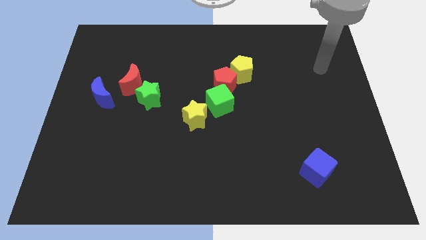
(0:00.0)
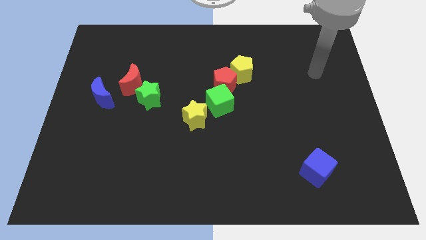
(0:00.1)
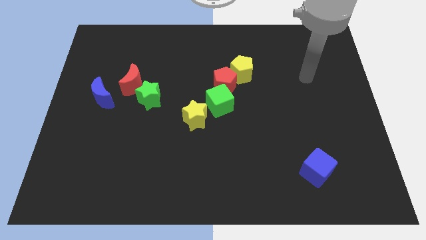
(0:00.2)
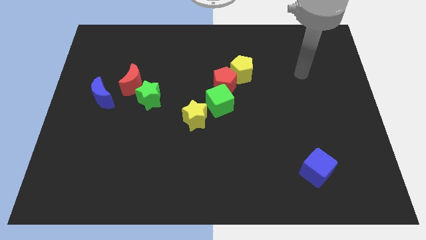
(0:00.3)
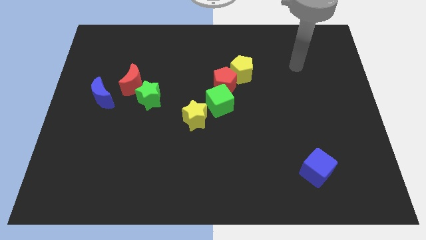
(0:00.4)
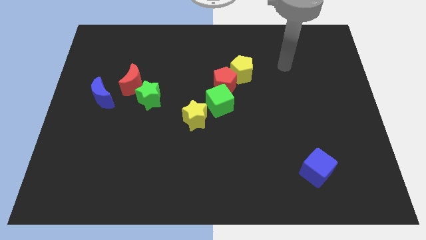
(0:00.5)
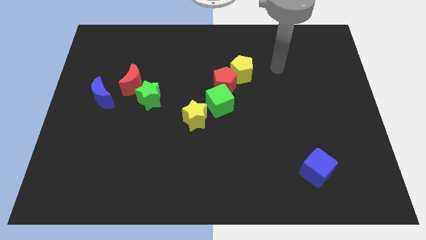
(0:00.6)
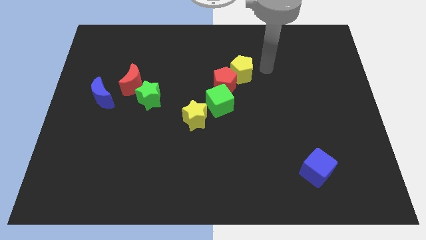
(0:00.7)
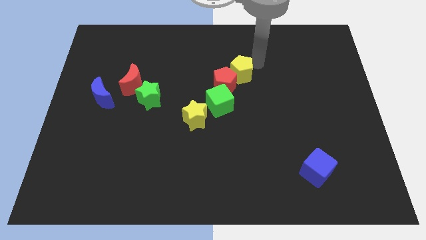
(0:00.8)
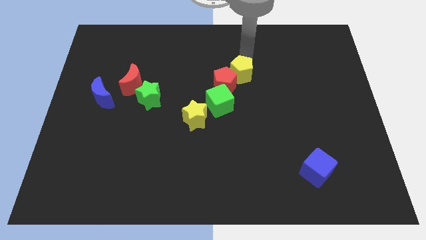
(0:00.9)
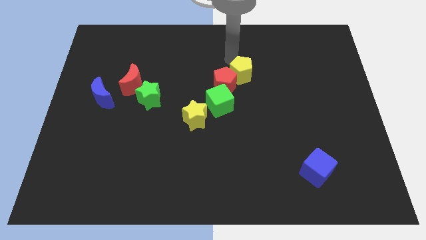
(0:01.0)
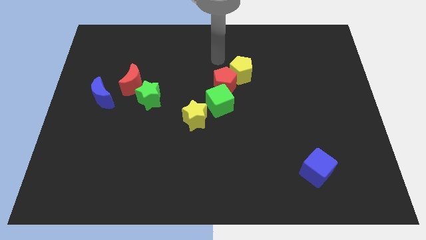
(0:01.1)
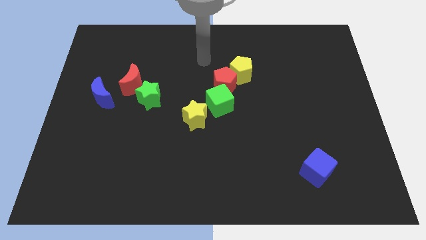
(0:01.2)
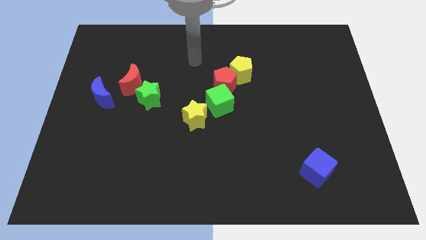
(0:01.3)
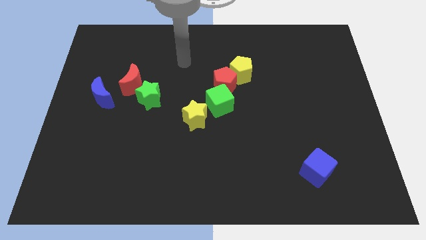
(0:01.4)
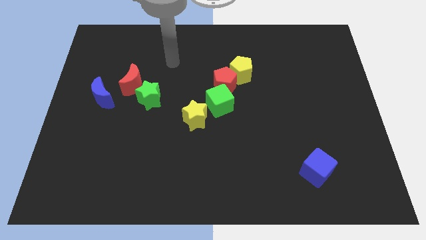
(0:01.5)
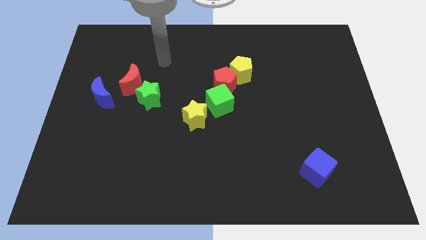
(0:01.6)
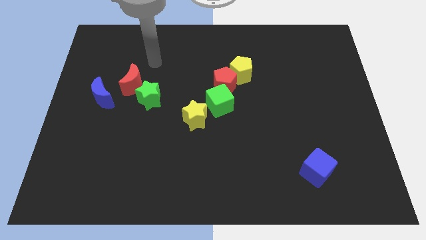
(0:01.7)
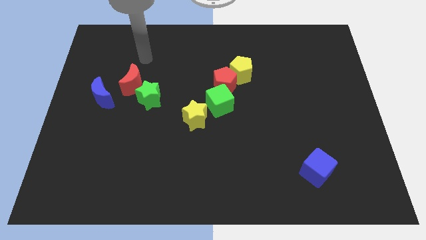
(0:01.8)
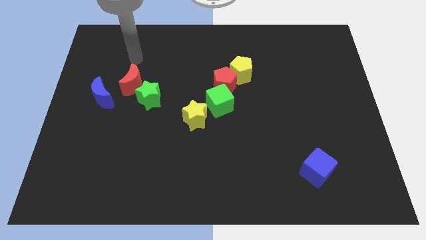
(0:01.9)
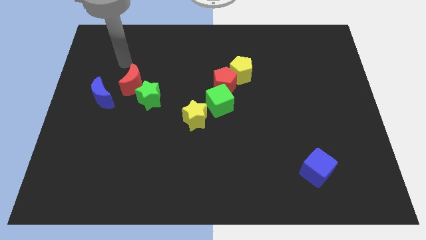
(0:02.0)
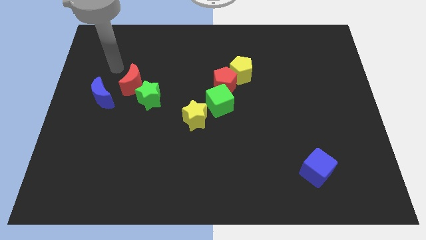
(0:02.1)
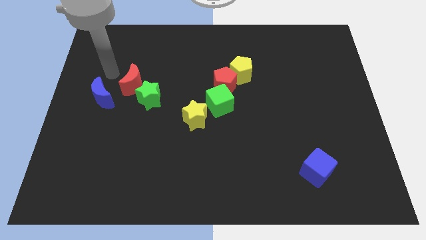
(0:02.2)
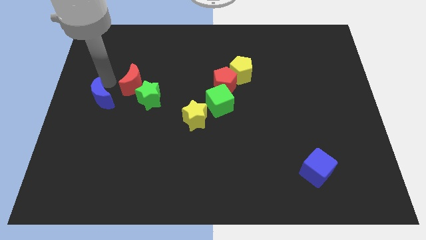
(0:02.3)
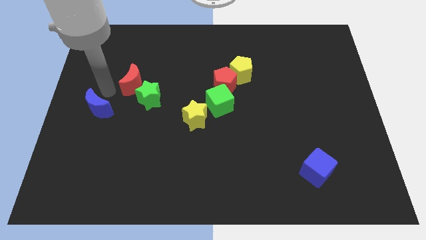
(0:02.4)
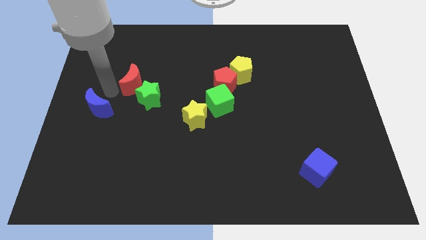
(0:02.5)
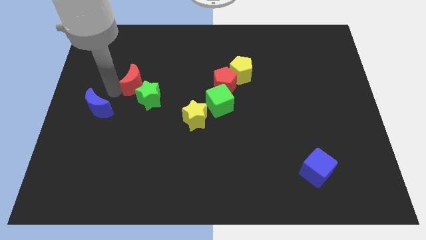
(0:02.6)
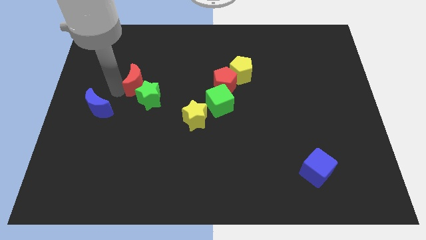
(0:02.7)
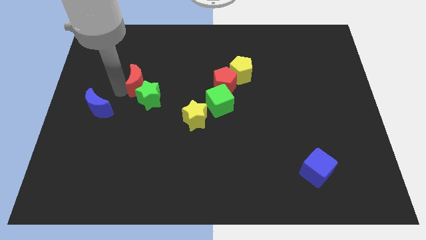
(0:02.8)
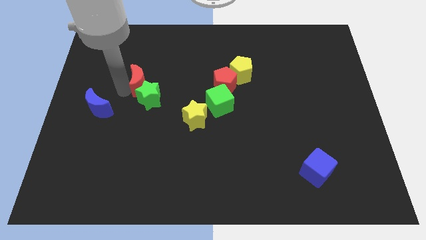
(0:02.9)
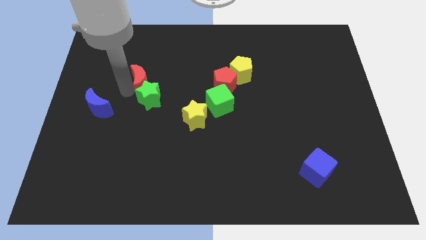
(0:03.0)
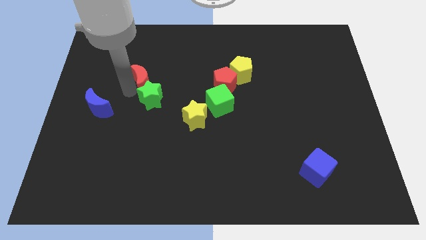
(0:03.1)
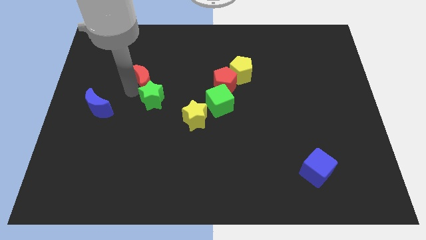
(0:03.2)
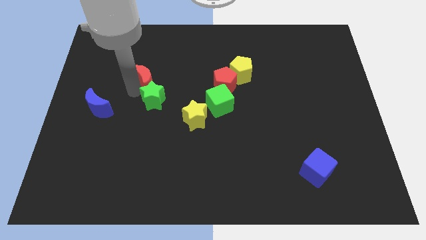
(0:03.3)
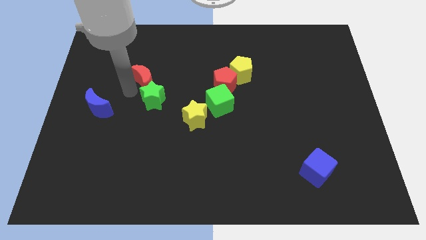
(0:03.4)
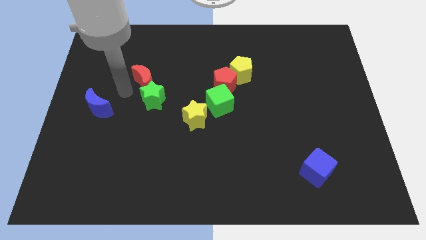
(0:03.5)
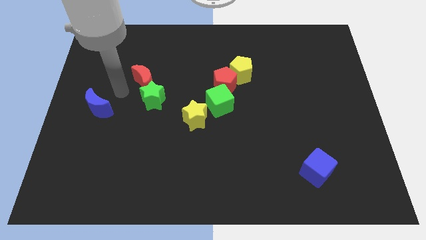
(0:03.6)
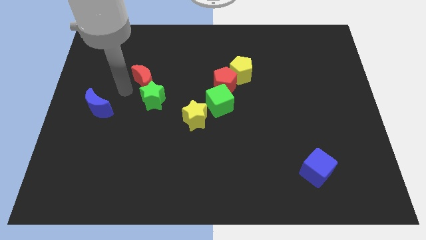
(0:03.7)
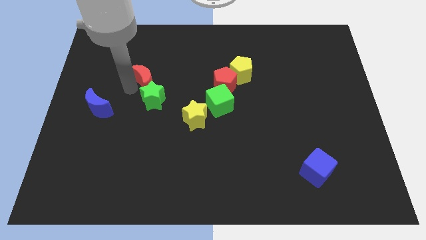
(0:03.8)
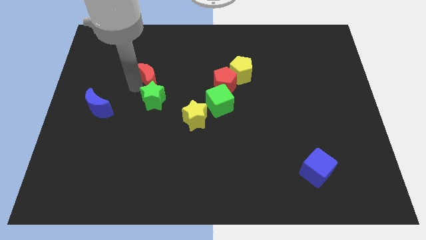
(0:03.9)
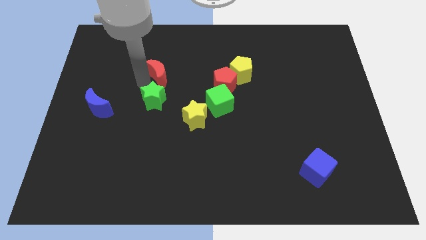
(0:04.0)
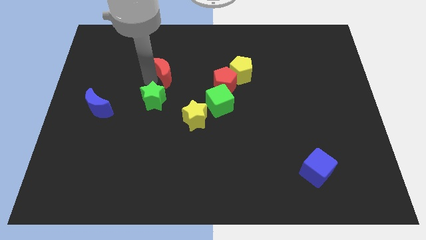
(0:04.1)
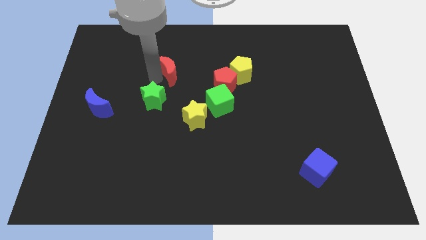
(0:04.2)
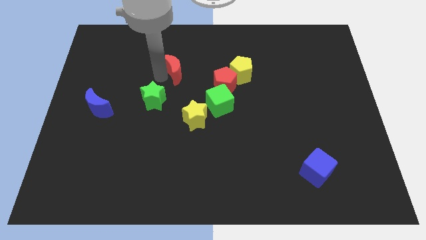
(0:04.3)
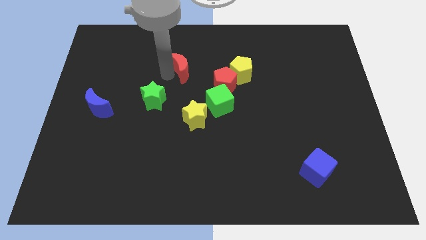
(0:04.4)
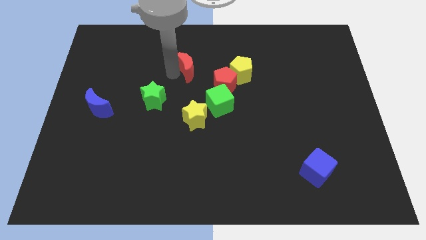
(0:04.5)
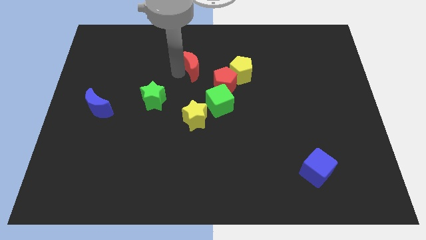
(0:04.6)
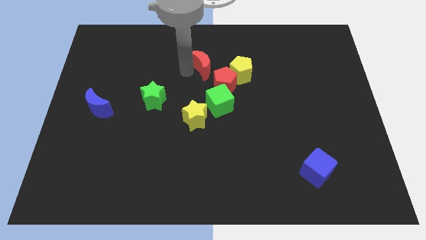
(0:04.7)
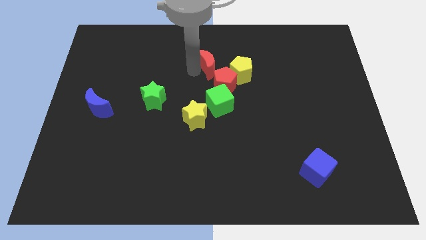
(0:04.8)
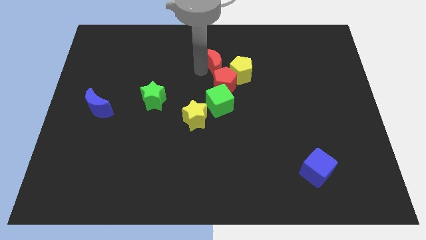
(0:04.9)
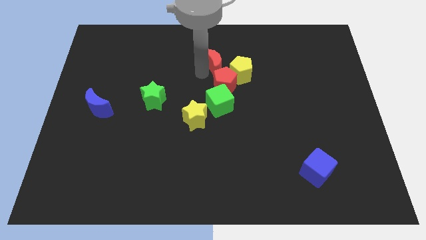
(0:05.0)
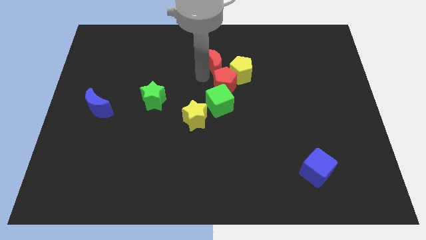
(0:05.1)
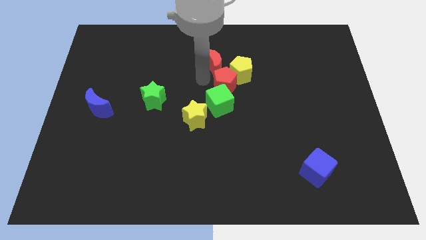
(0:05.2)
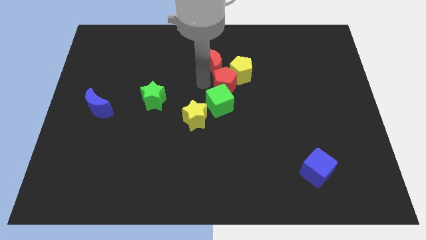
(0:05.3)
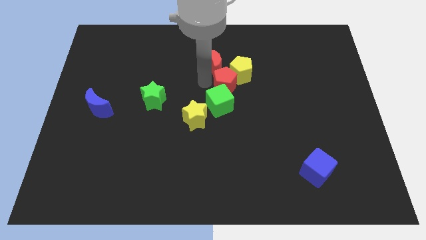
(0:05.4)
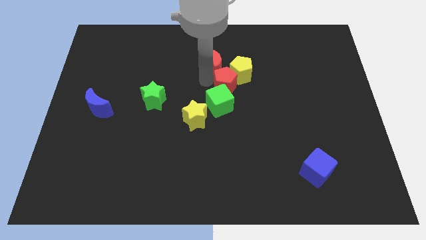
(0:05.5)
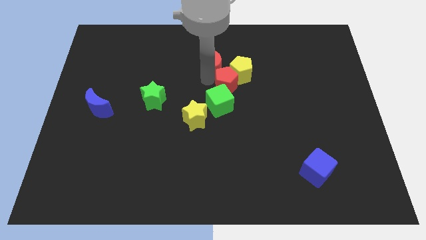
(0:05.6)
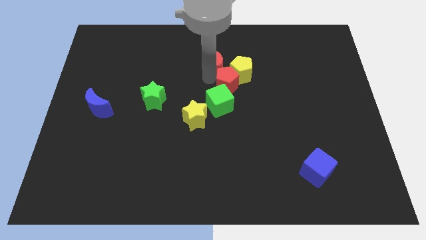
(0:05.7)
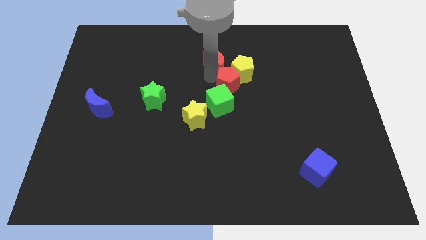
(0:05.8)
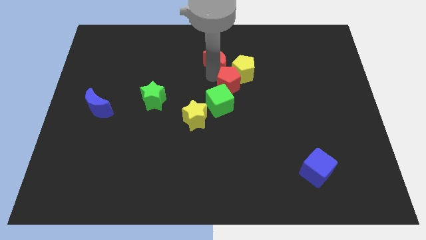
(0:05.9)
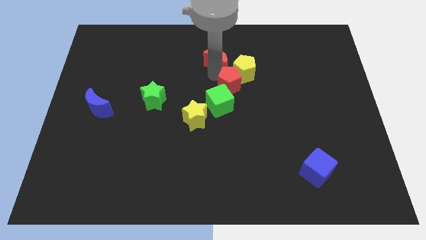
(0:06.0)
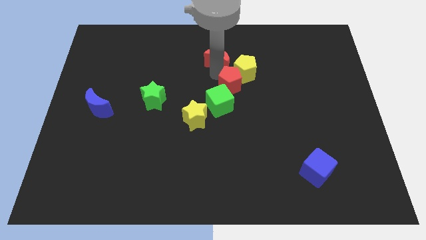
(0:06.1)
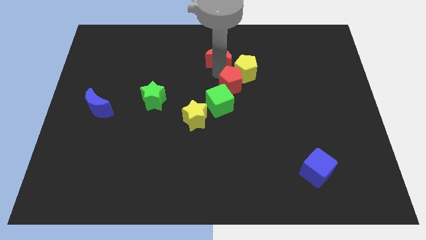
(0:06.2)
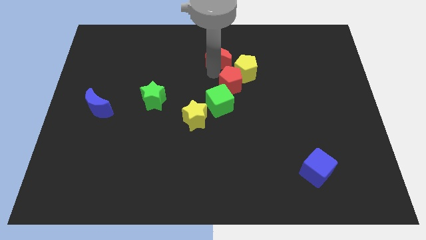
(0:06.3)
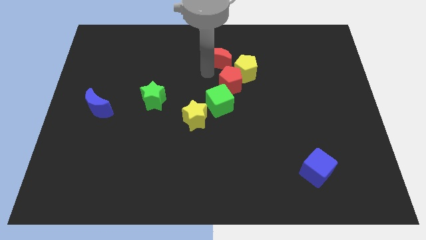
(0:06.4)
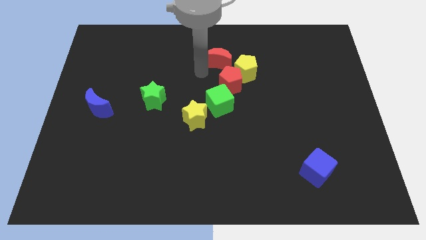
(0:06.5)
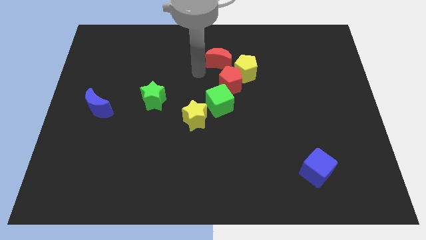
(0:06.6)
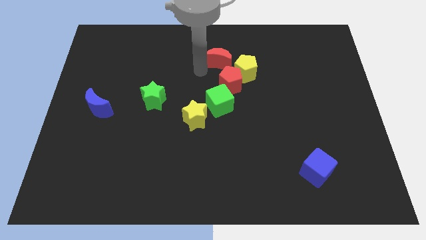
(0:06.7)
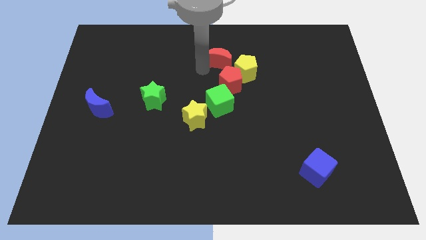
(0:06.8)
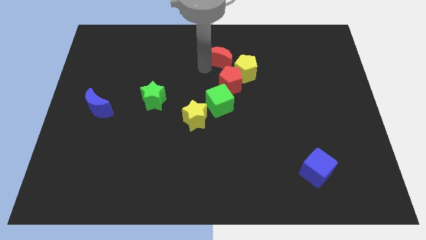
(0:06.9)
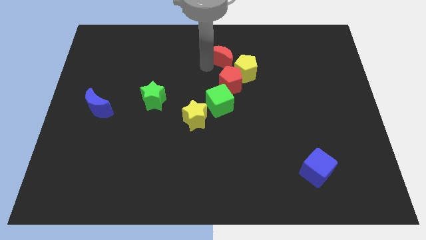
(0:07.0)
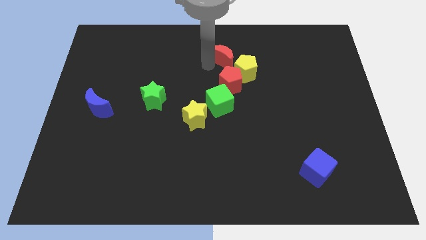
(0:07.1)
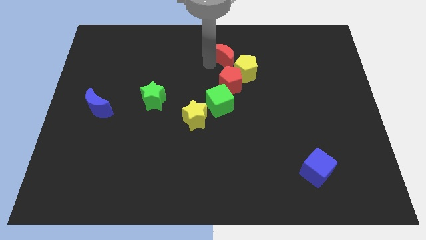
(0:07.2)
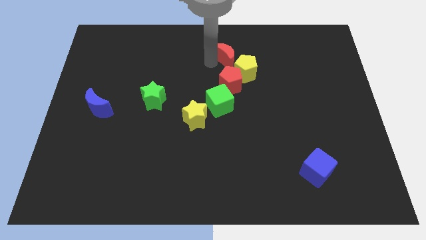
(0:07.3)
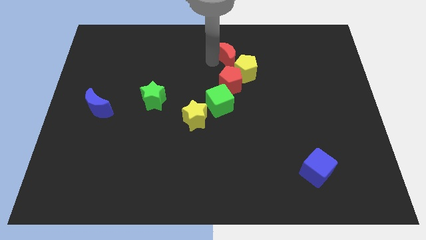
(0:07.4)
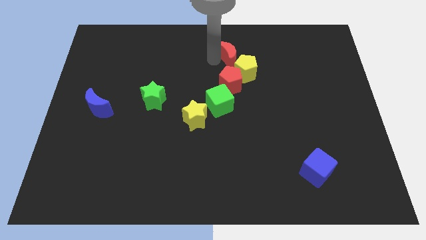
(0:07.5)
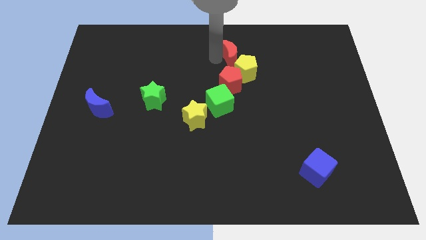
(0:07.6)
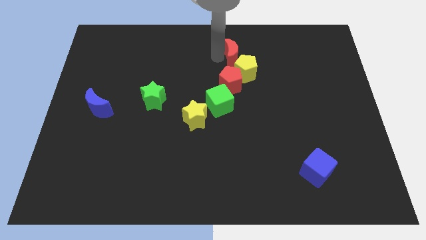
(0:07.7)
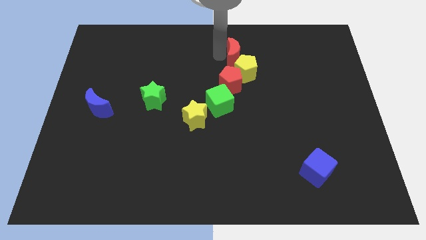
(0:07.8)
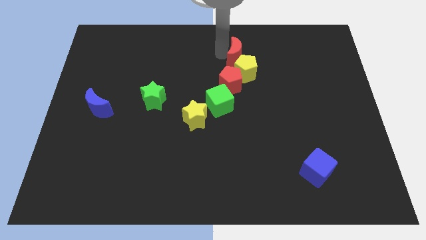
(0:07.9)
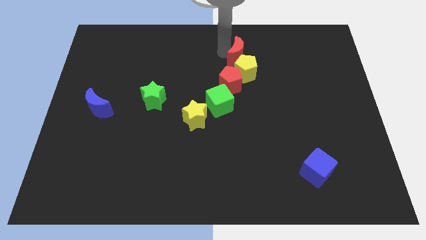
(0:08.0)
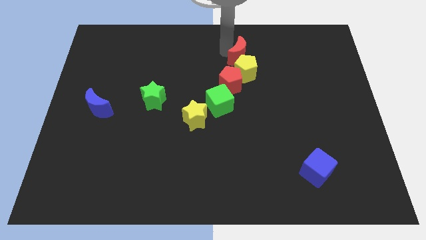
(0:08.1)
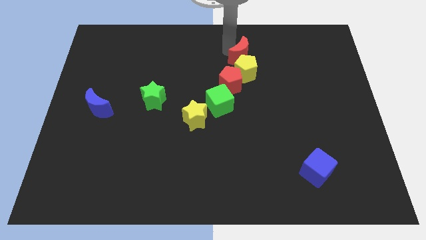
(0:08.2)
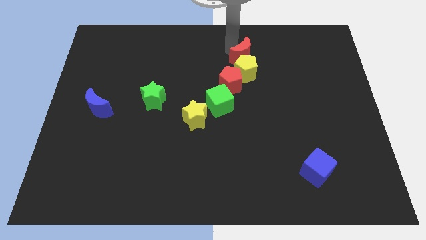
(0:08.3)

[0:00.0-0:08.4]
slide the red moon to the top right side of the red pentagon
